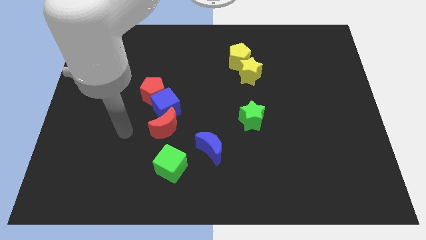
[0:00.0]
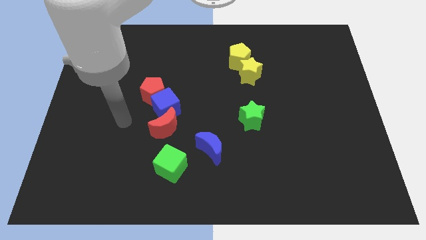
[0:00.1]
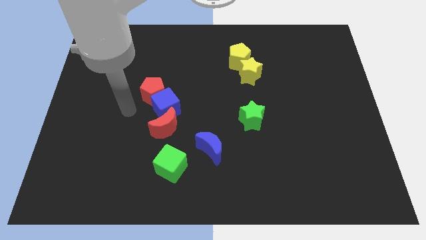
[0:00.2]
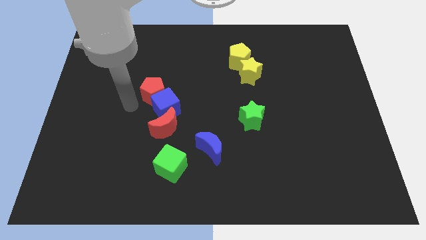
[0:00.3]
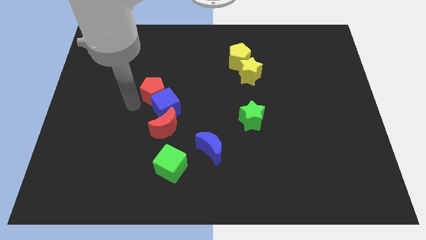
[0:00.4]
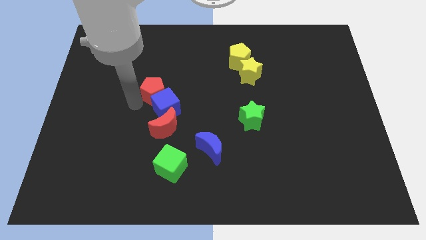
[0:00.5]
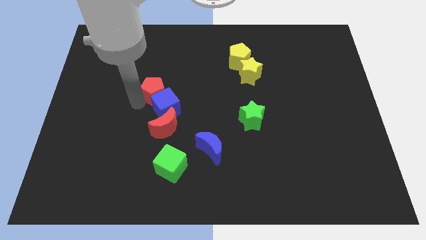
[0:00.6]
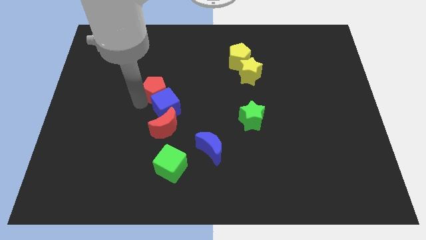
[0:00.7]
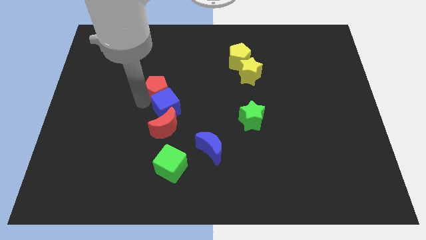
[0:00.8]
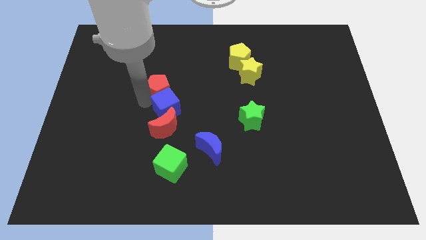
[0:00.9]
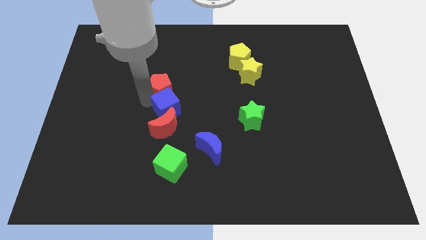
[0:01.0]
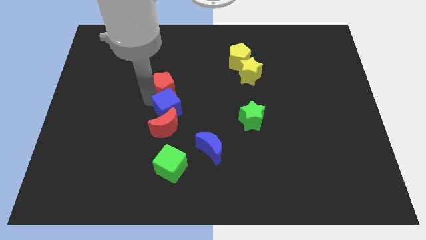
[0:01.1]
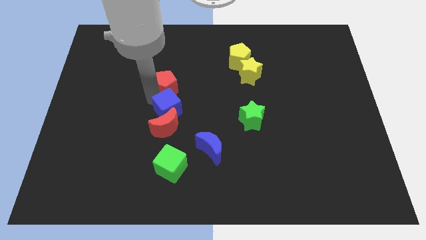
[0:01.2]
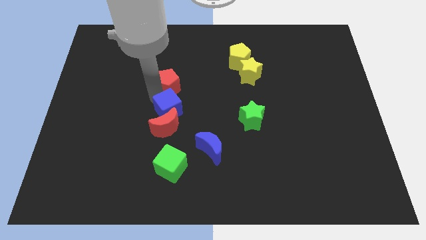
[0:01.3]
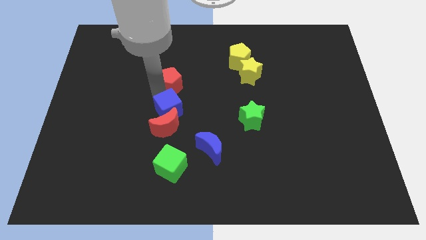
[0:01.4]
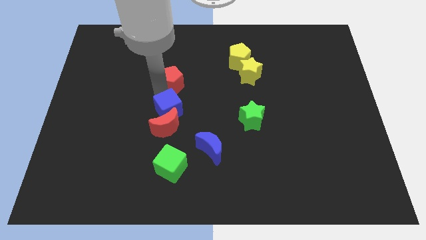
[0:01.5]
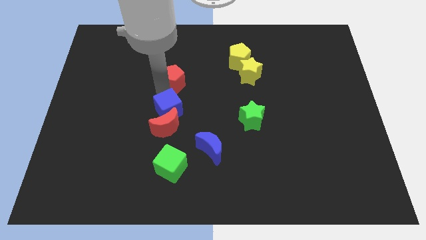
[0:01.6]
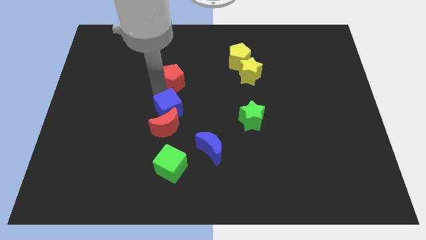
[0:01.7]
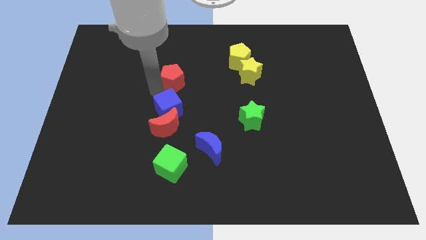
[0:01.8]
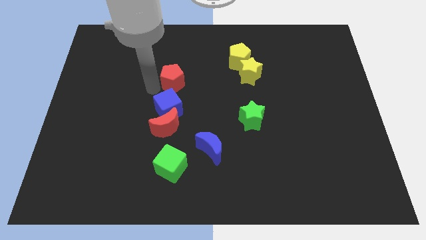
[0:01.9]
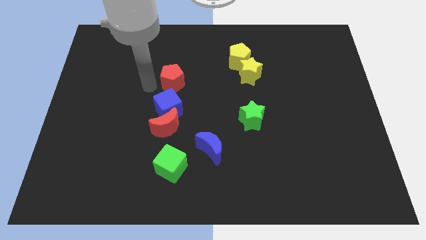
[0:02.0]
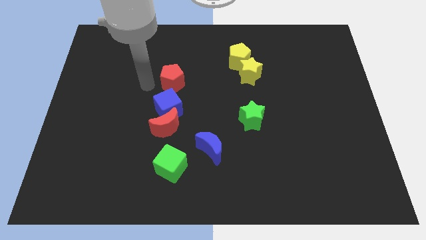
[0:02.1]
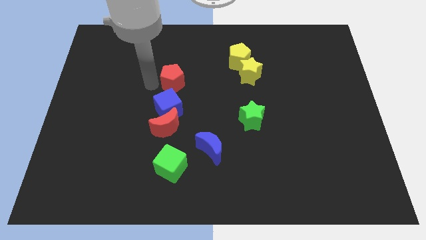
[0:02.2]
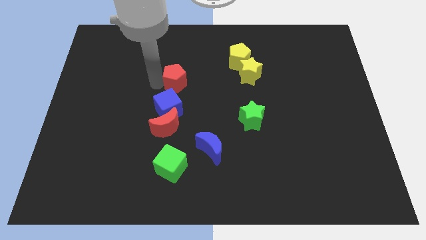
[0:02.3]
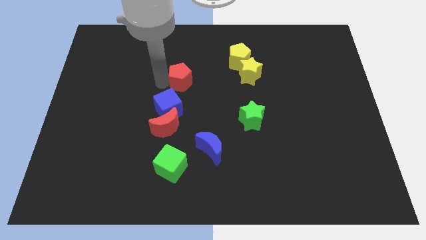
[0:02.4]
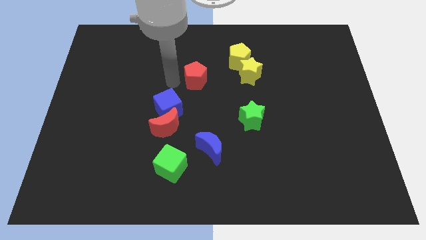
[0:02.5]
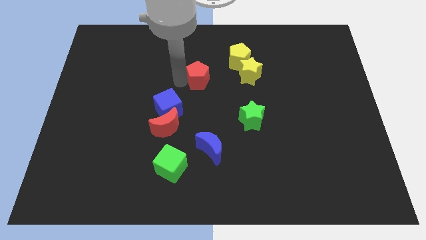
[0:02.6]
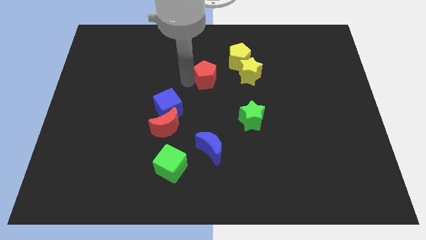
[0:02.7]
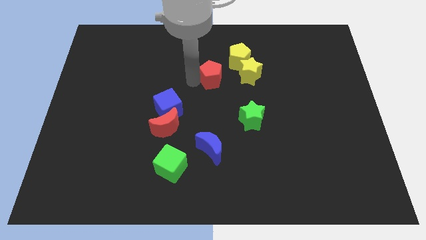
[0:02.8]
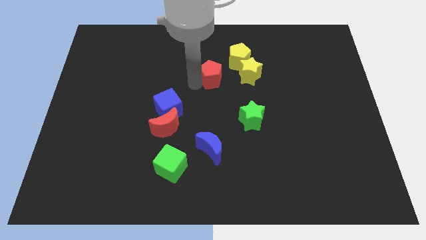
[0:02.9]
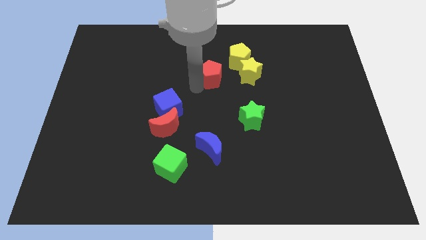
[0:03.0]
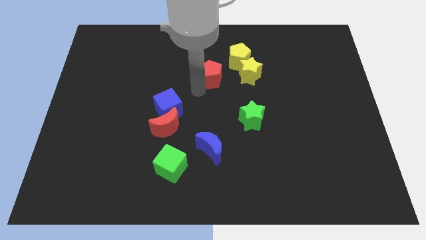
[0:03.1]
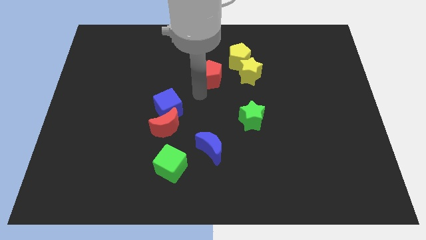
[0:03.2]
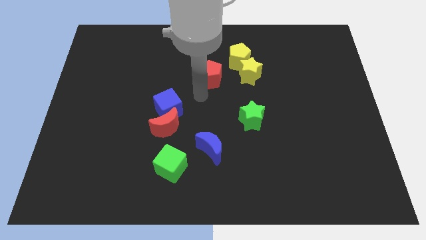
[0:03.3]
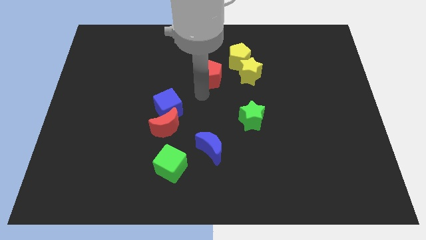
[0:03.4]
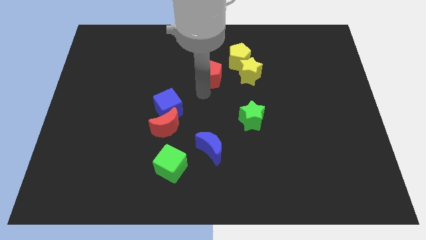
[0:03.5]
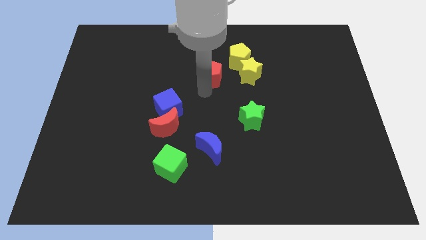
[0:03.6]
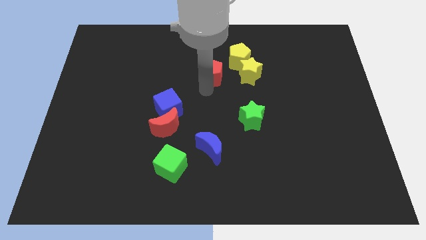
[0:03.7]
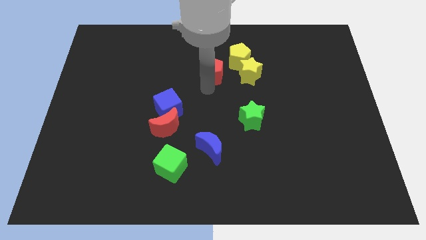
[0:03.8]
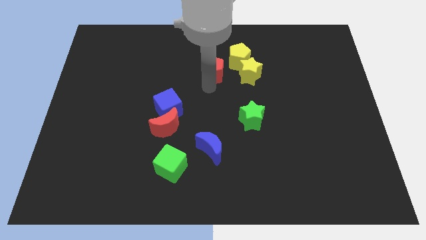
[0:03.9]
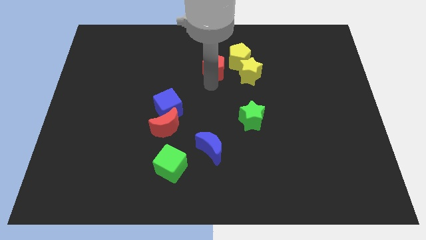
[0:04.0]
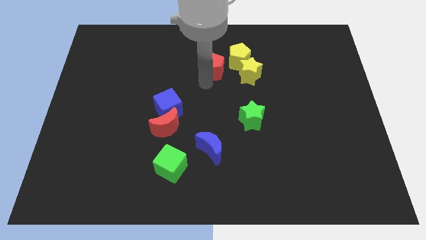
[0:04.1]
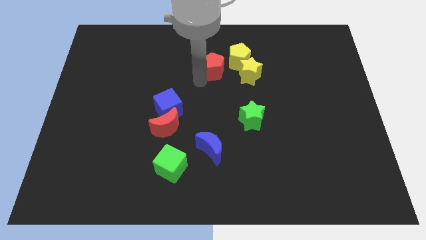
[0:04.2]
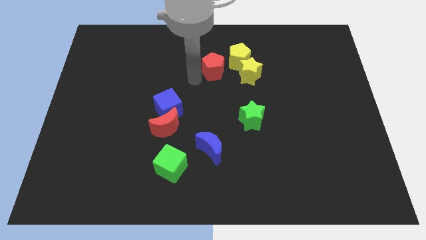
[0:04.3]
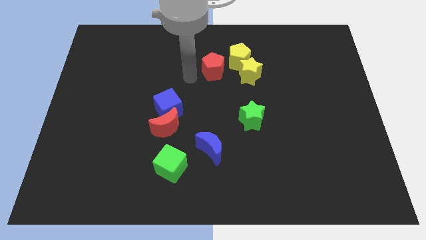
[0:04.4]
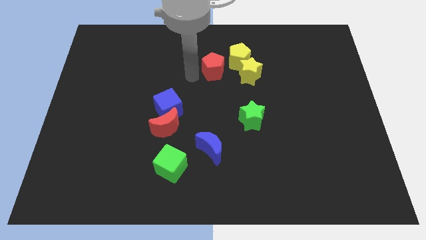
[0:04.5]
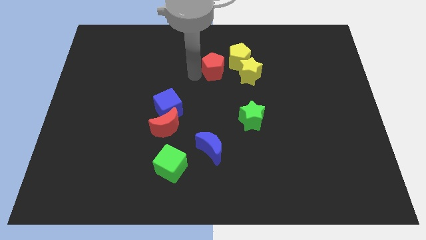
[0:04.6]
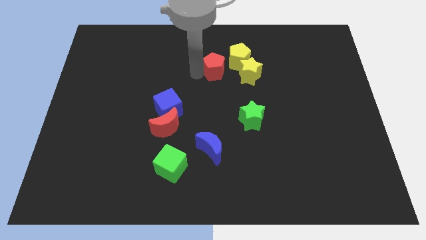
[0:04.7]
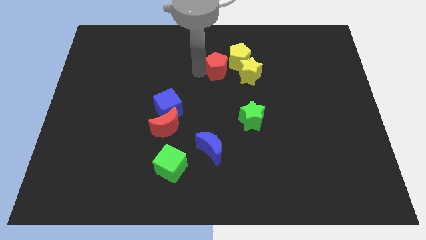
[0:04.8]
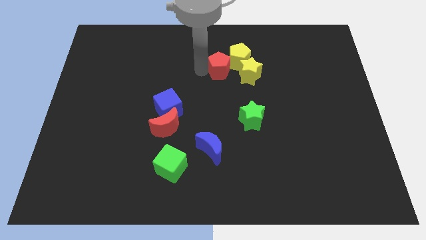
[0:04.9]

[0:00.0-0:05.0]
move the red pentagon close to the yellow pentagon

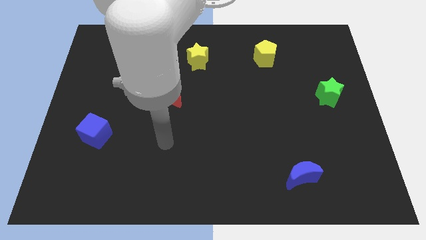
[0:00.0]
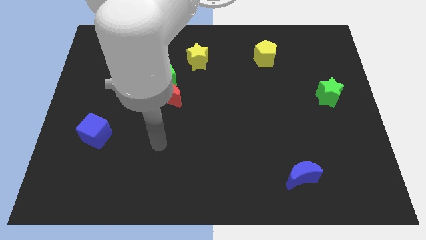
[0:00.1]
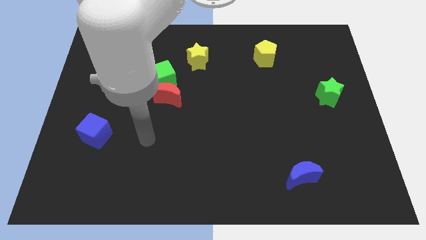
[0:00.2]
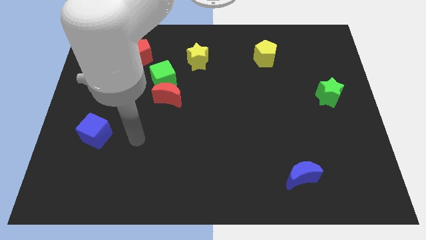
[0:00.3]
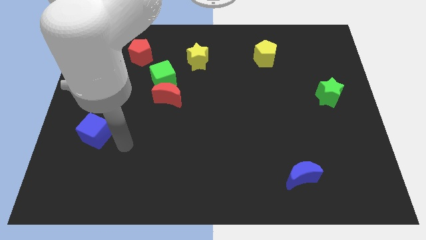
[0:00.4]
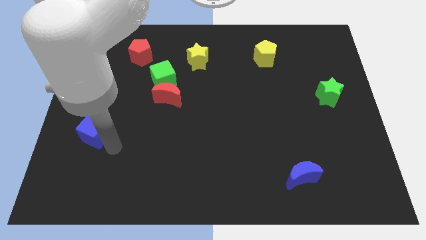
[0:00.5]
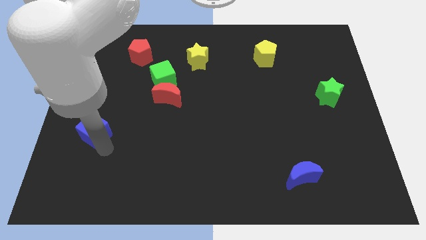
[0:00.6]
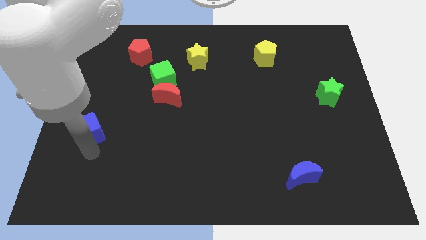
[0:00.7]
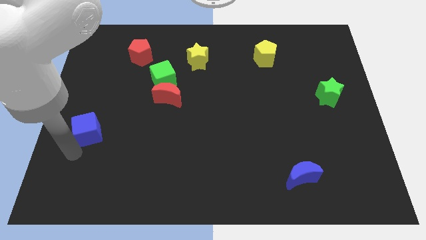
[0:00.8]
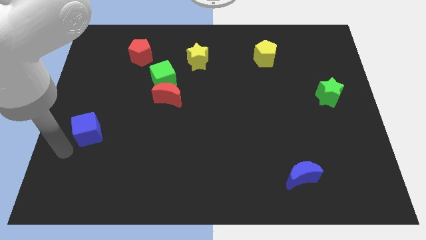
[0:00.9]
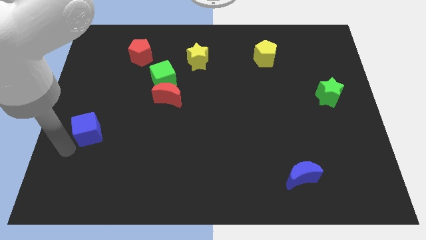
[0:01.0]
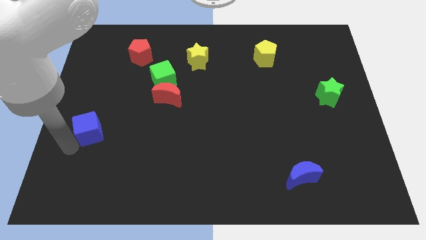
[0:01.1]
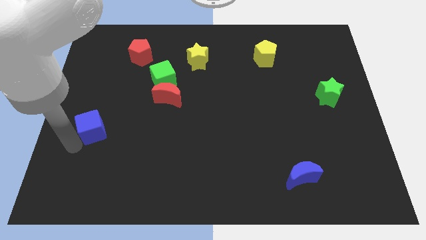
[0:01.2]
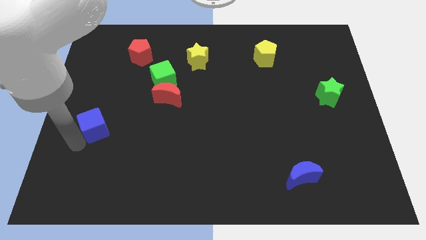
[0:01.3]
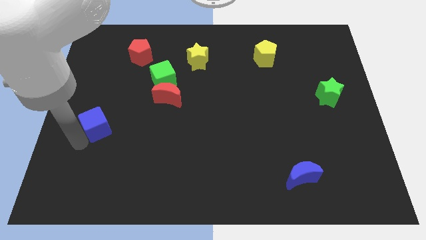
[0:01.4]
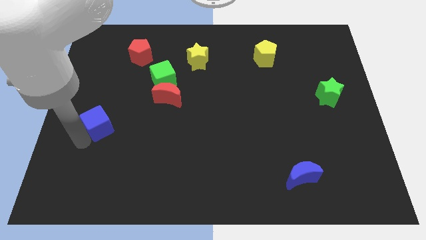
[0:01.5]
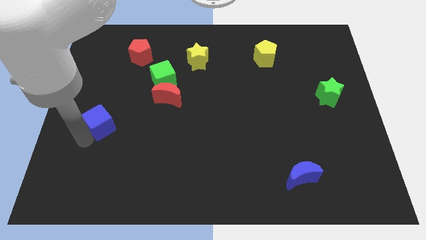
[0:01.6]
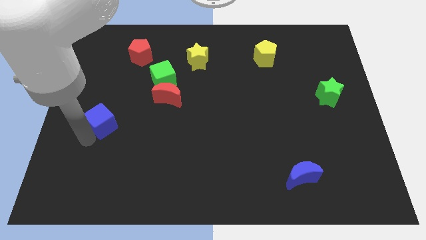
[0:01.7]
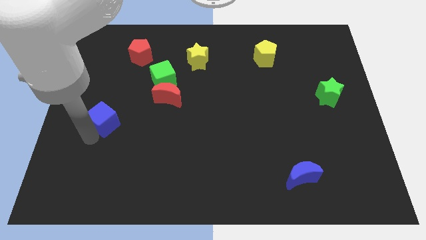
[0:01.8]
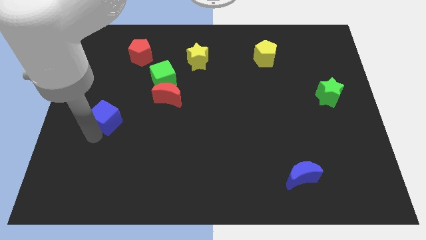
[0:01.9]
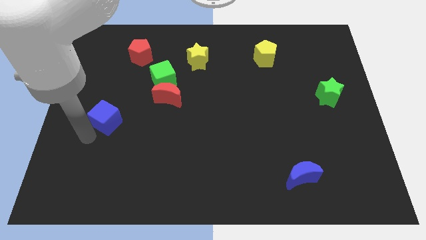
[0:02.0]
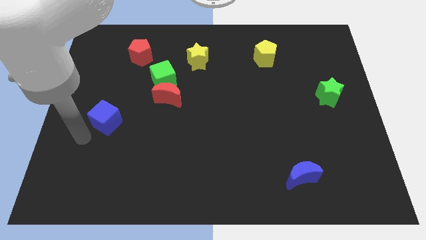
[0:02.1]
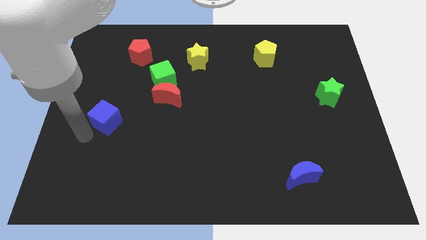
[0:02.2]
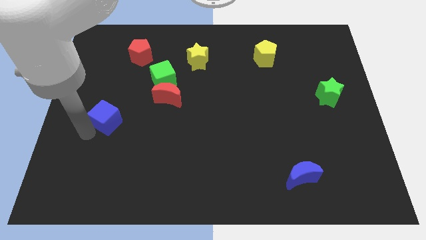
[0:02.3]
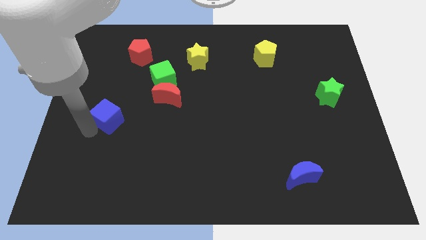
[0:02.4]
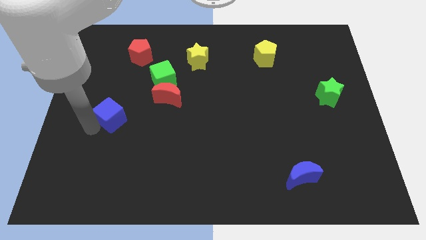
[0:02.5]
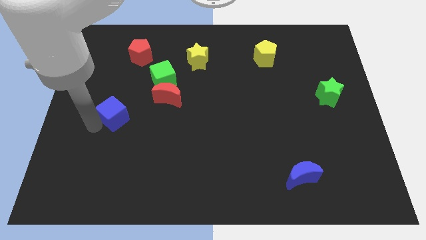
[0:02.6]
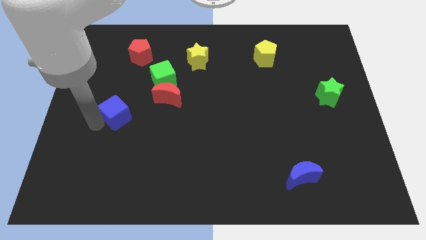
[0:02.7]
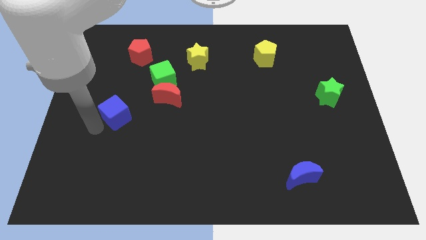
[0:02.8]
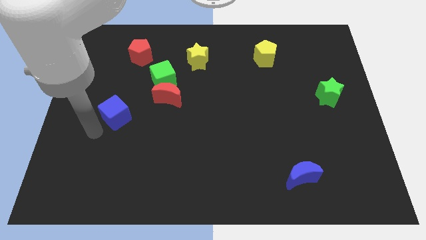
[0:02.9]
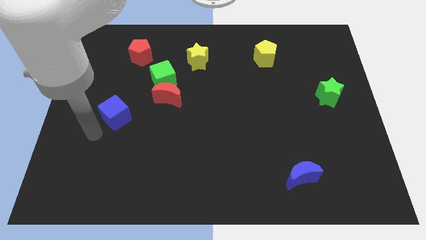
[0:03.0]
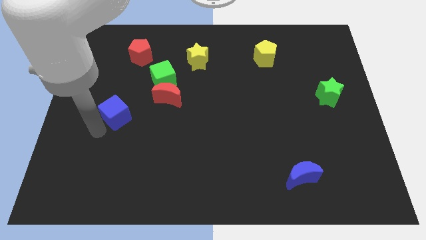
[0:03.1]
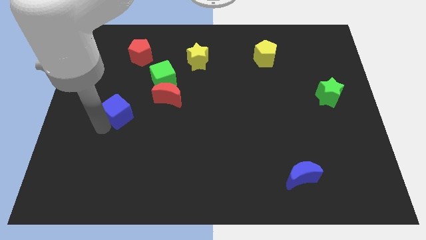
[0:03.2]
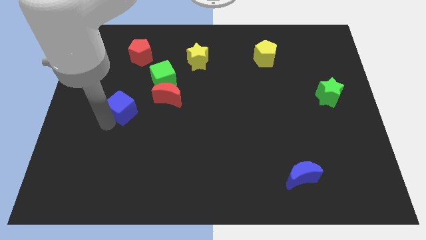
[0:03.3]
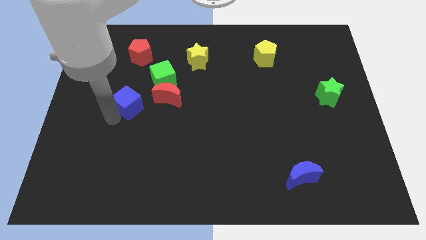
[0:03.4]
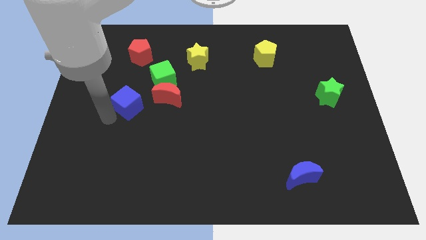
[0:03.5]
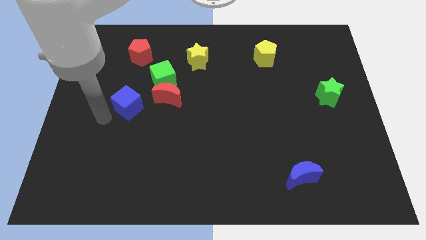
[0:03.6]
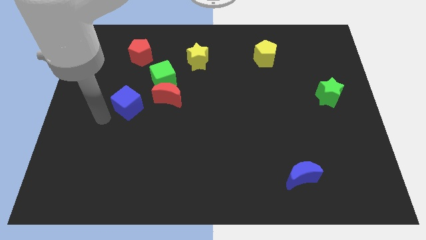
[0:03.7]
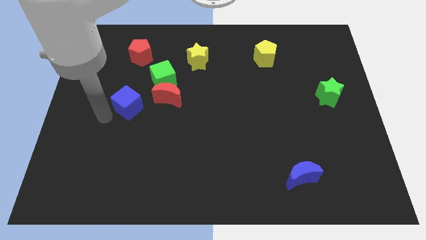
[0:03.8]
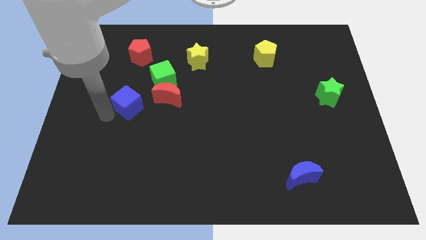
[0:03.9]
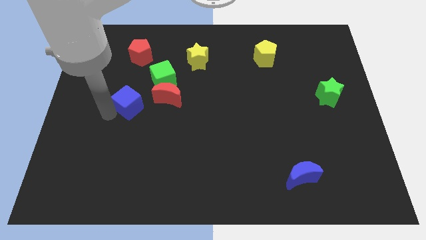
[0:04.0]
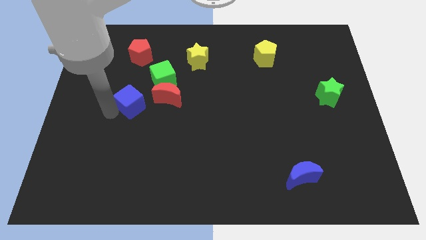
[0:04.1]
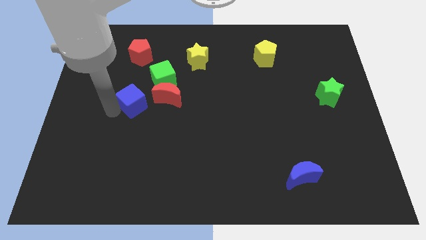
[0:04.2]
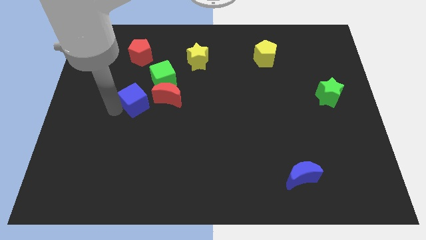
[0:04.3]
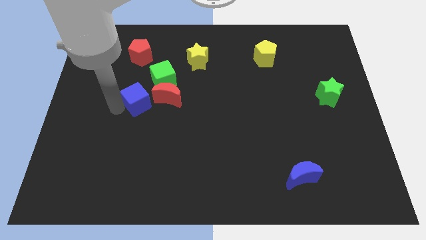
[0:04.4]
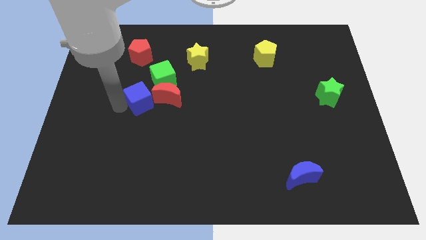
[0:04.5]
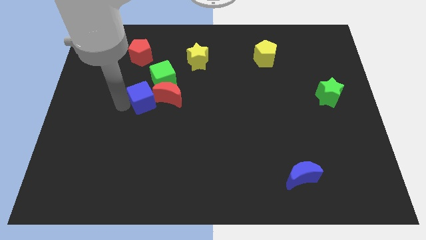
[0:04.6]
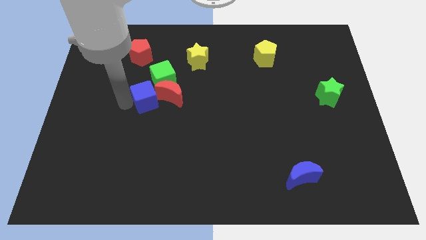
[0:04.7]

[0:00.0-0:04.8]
push the blue cube next to the red moon
